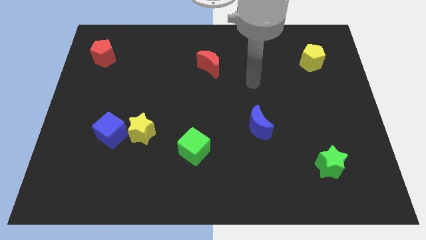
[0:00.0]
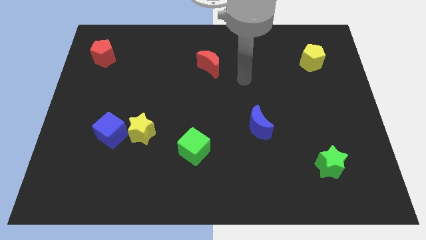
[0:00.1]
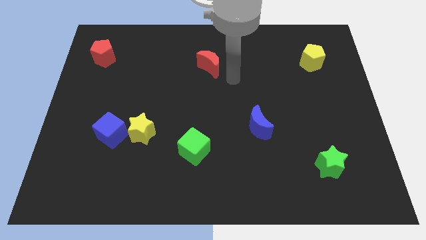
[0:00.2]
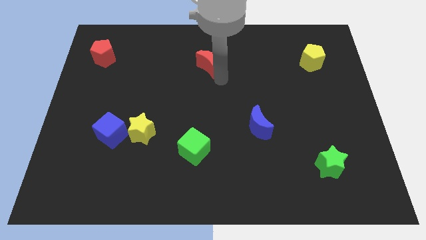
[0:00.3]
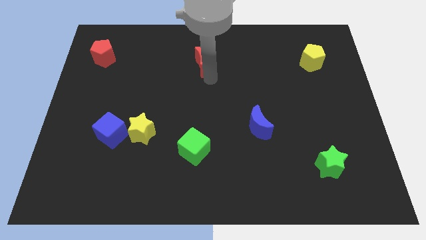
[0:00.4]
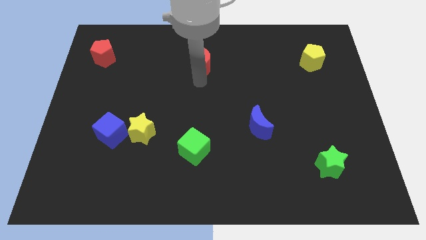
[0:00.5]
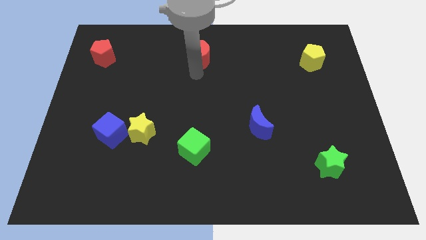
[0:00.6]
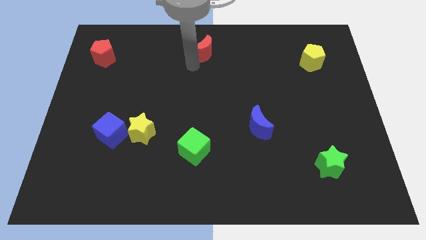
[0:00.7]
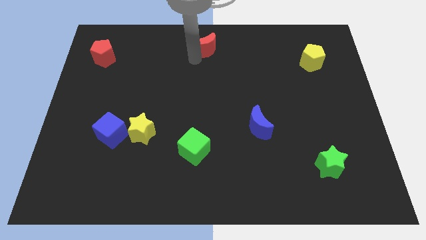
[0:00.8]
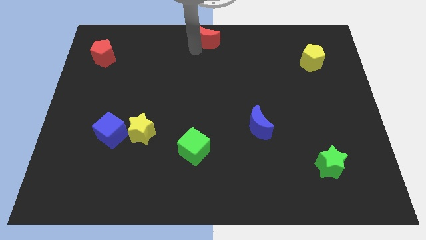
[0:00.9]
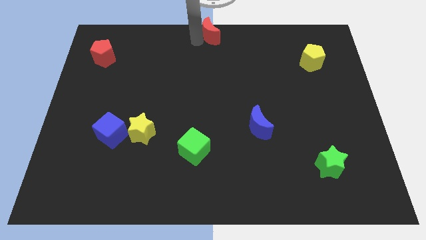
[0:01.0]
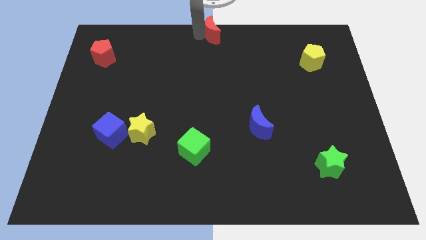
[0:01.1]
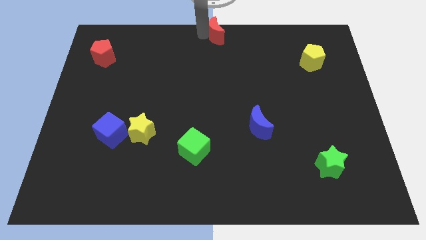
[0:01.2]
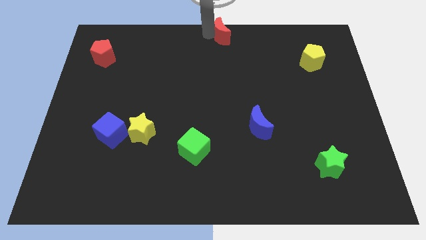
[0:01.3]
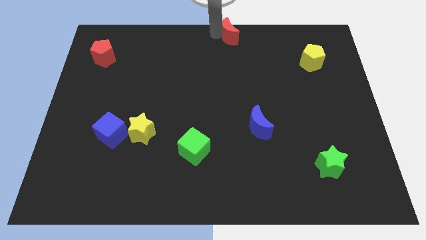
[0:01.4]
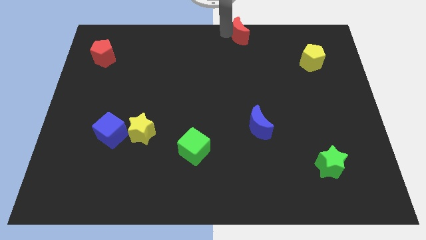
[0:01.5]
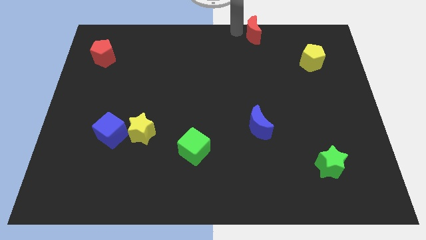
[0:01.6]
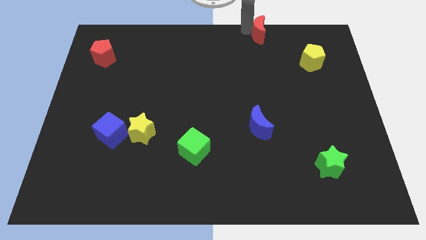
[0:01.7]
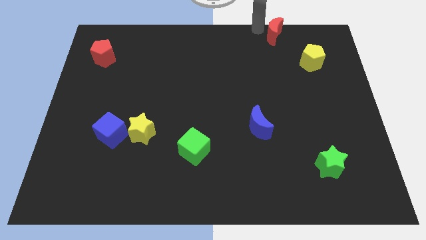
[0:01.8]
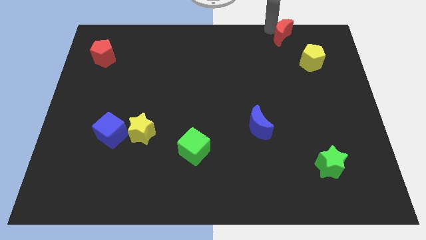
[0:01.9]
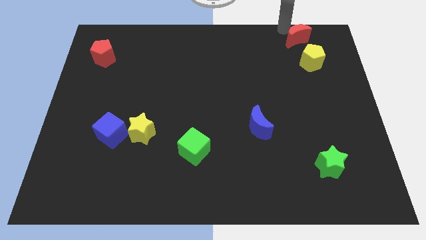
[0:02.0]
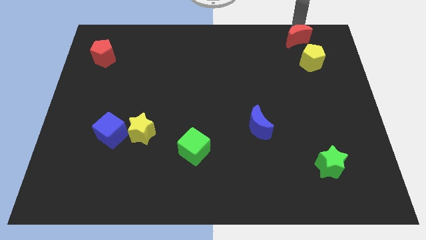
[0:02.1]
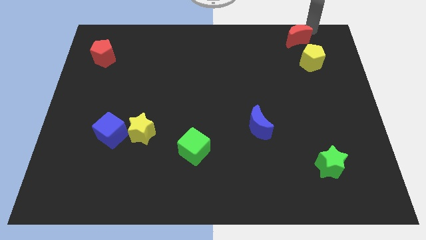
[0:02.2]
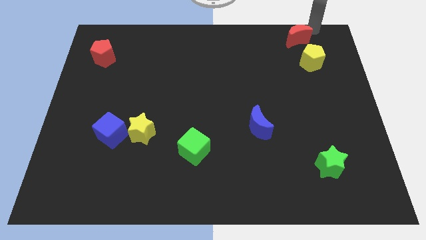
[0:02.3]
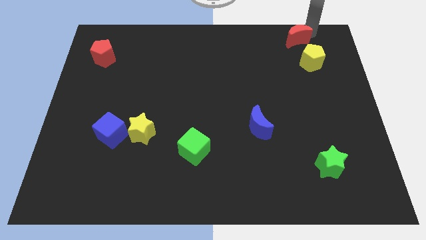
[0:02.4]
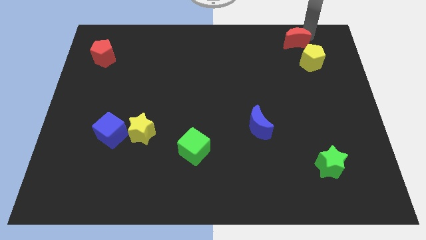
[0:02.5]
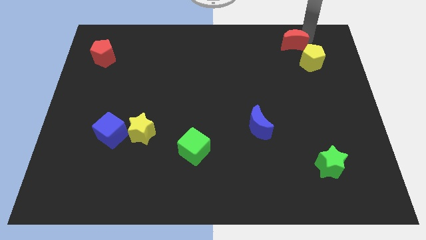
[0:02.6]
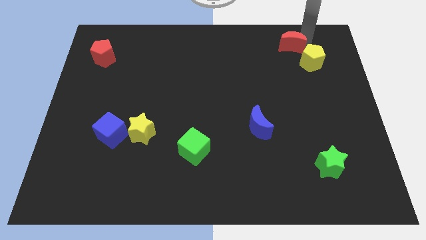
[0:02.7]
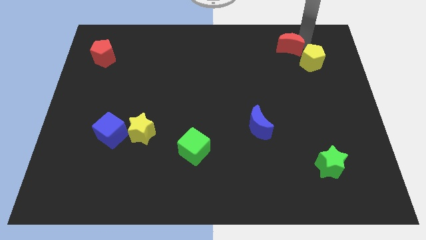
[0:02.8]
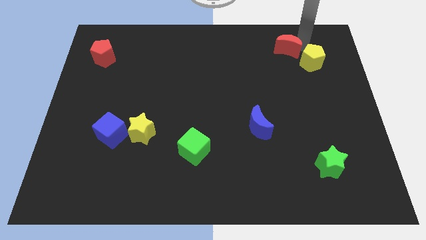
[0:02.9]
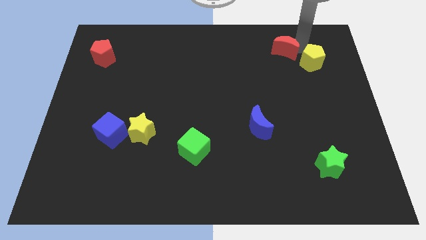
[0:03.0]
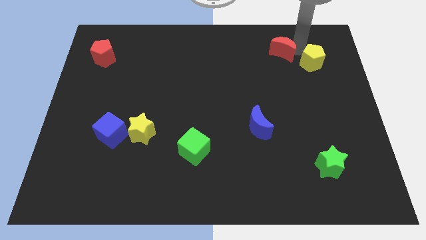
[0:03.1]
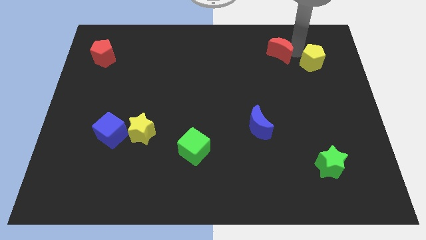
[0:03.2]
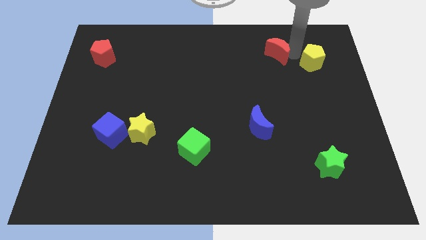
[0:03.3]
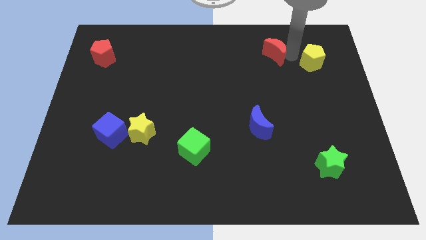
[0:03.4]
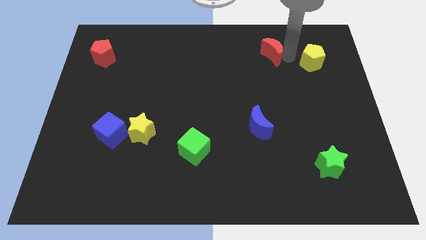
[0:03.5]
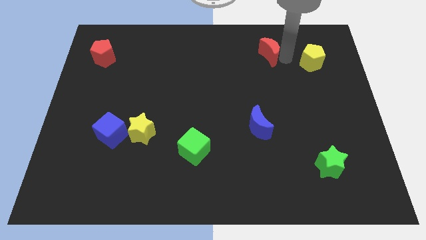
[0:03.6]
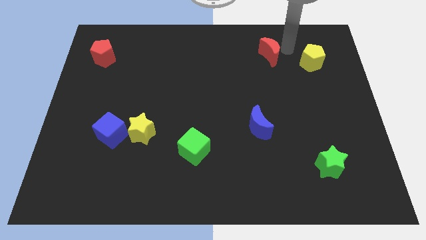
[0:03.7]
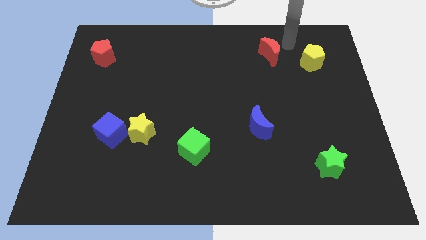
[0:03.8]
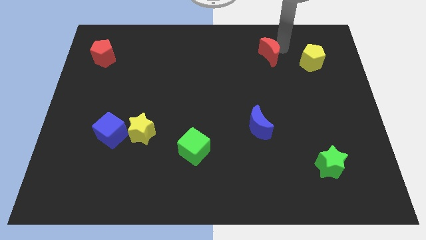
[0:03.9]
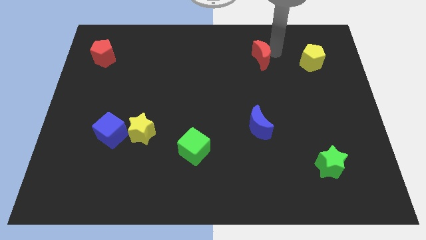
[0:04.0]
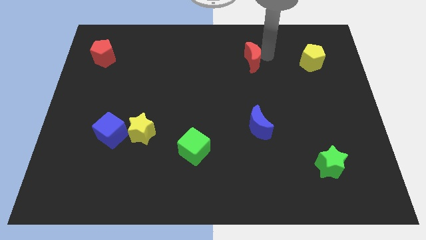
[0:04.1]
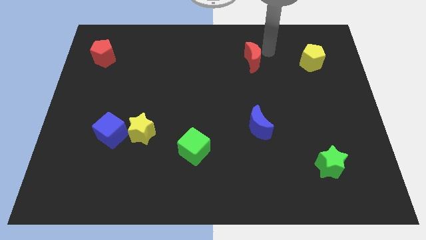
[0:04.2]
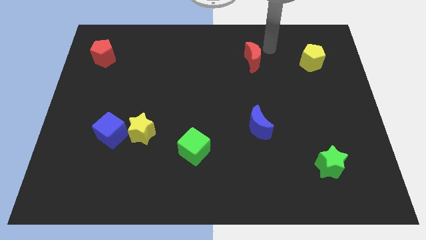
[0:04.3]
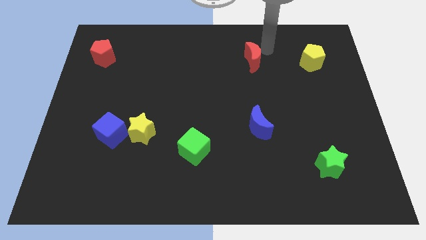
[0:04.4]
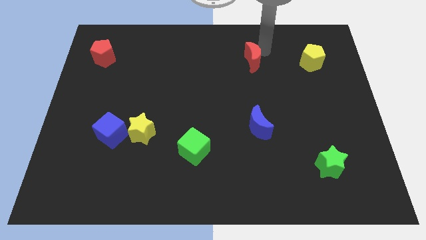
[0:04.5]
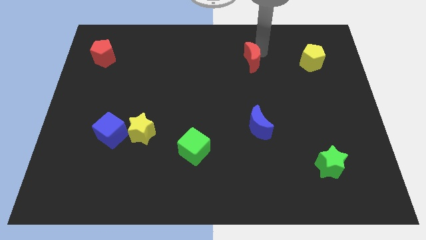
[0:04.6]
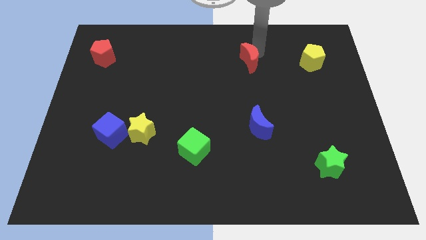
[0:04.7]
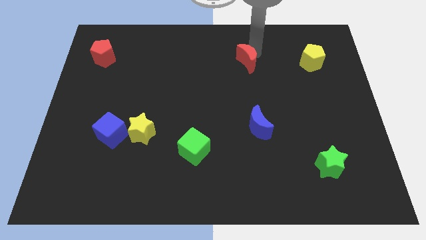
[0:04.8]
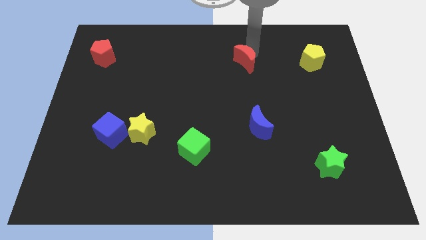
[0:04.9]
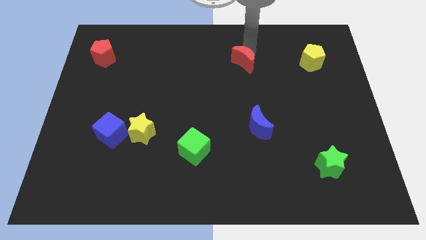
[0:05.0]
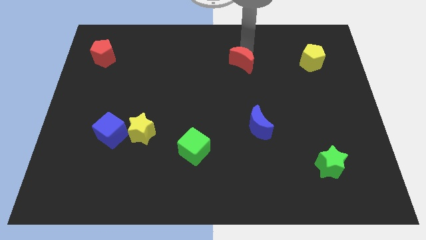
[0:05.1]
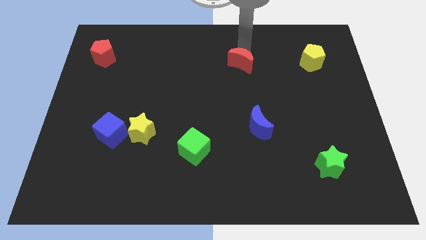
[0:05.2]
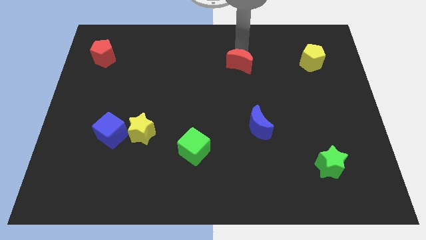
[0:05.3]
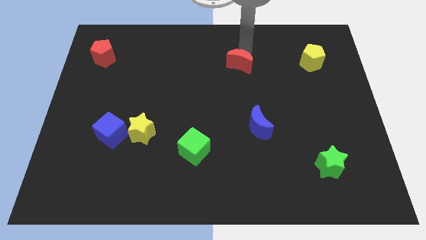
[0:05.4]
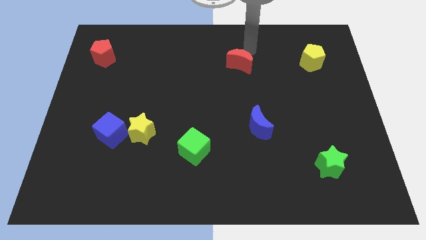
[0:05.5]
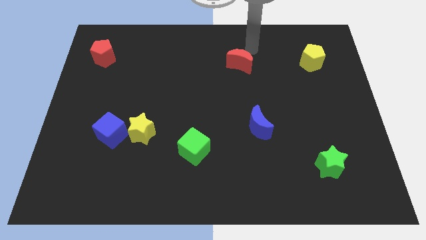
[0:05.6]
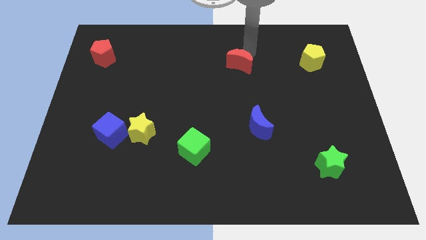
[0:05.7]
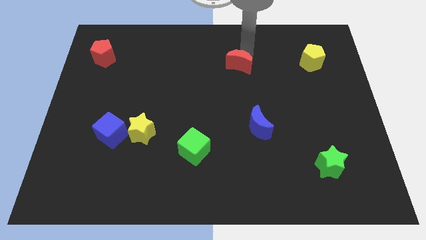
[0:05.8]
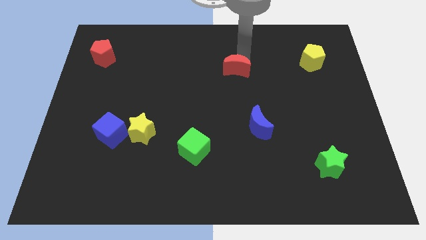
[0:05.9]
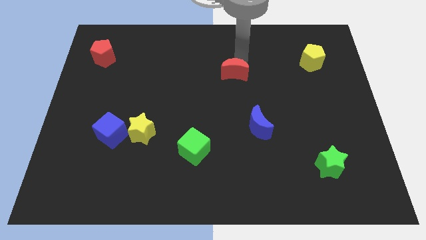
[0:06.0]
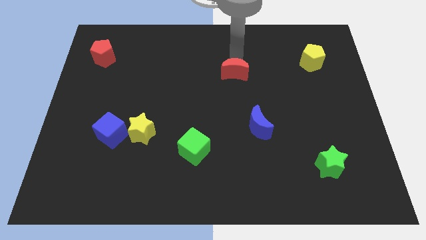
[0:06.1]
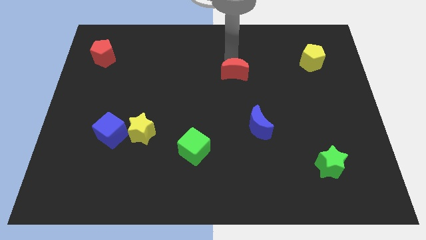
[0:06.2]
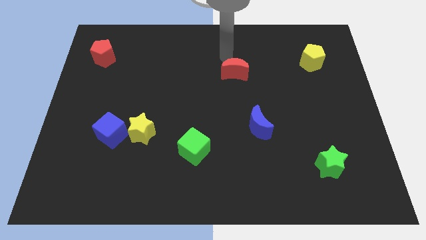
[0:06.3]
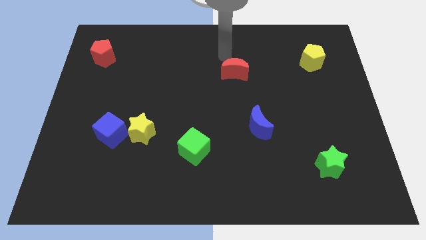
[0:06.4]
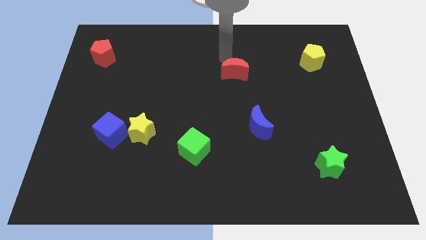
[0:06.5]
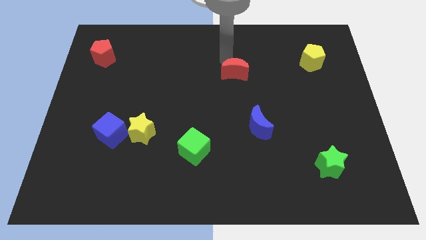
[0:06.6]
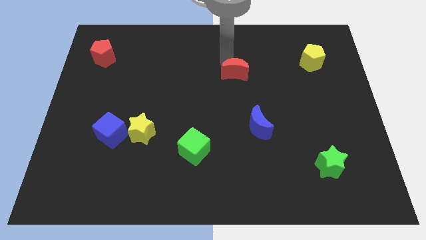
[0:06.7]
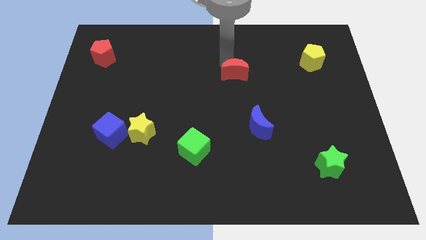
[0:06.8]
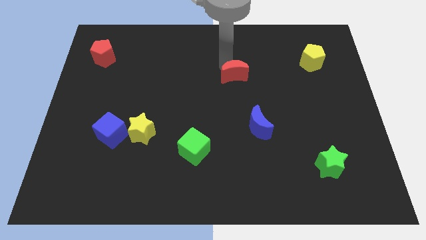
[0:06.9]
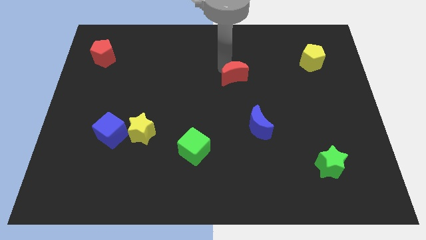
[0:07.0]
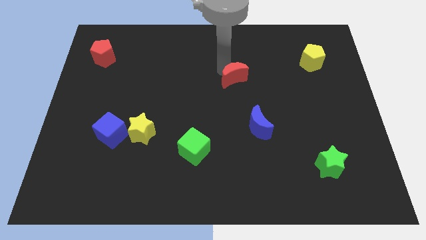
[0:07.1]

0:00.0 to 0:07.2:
push the red moon diagonally downwards and right somewhat

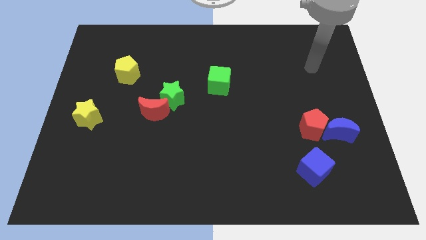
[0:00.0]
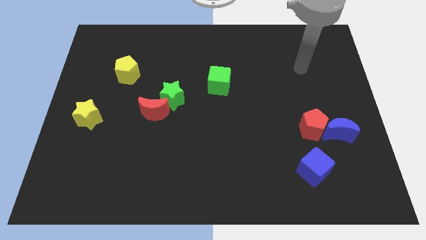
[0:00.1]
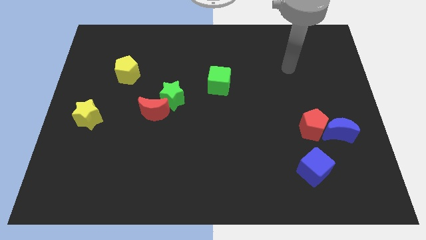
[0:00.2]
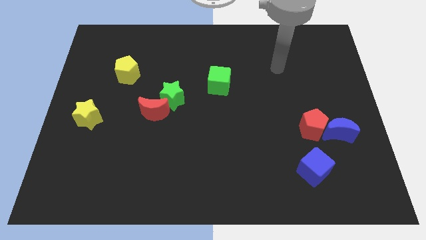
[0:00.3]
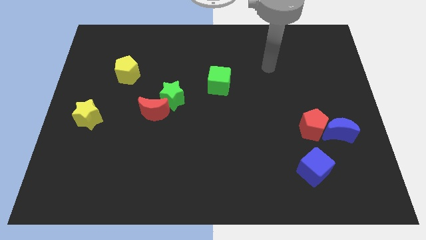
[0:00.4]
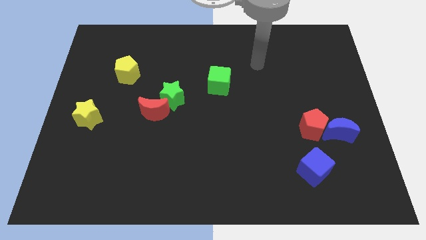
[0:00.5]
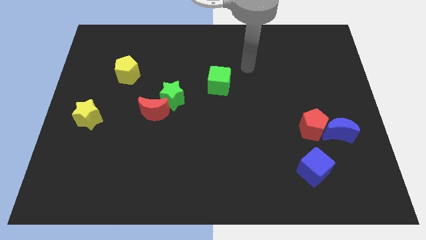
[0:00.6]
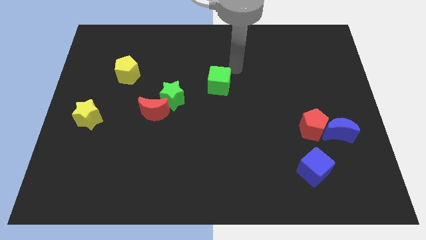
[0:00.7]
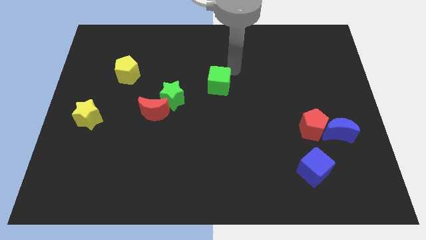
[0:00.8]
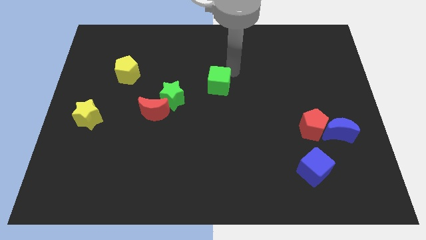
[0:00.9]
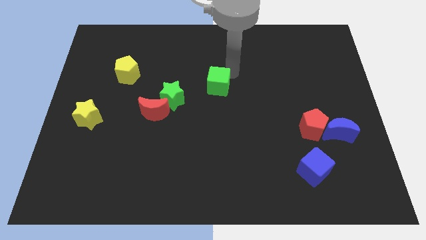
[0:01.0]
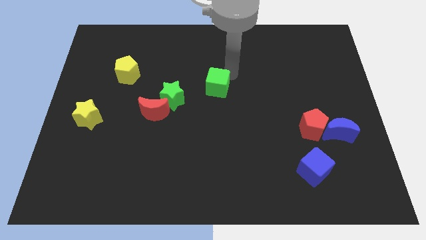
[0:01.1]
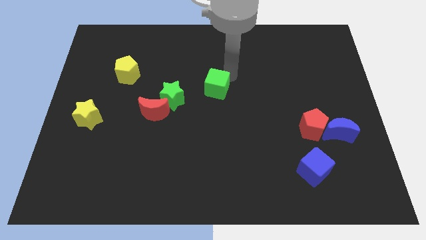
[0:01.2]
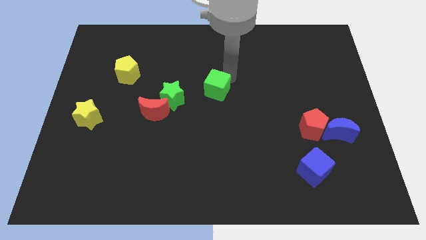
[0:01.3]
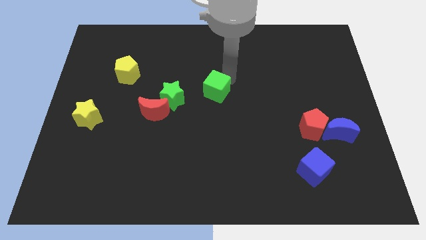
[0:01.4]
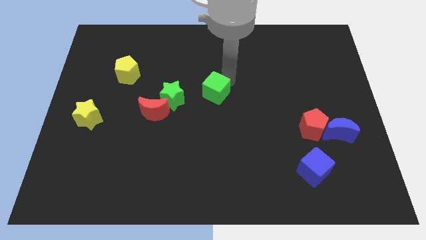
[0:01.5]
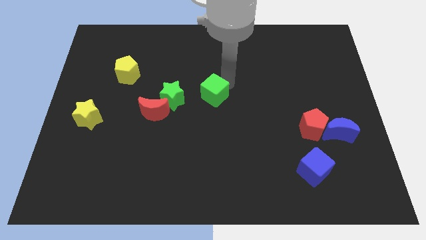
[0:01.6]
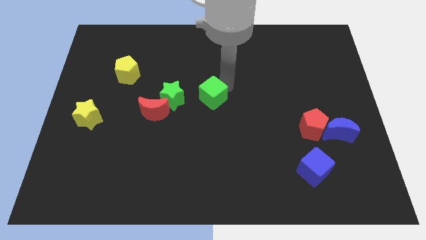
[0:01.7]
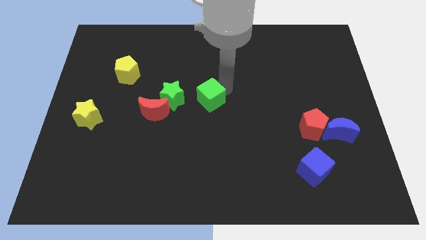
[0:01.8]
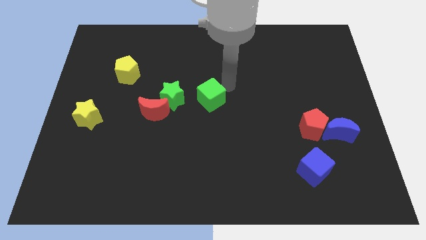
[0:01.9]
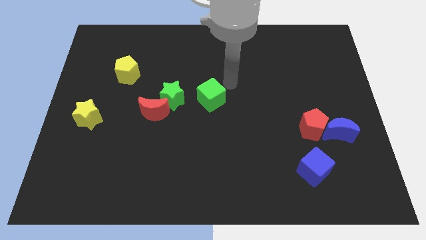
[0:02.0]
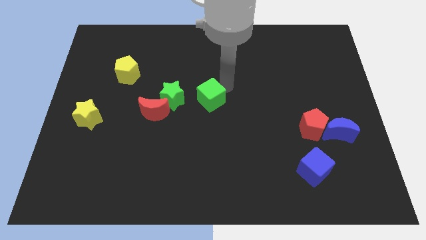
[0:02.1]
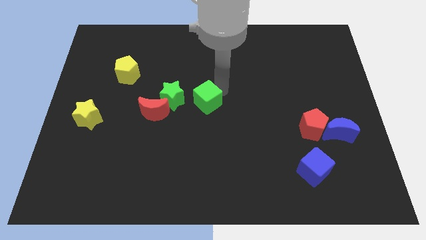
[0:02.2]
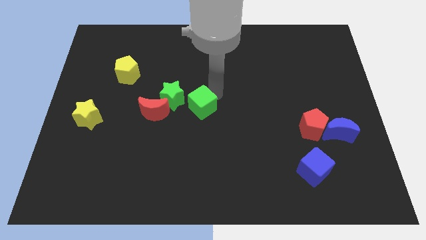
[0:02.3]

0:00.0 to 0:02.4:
slide the green cube down and left diagonally a bit
